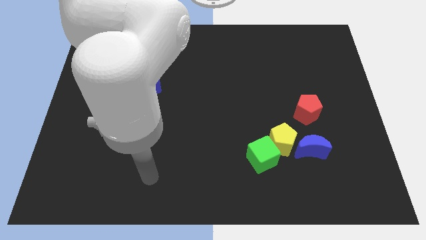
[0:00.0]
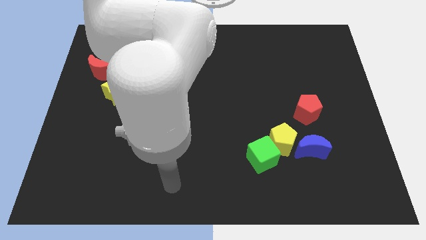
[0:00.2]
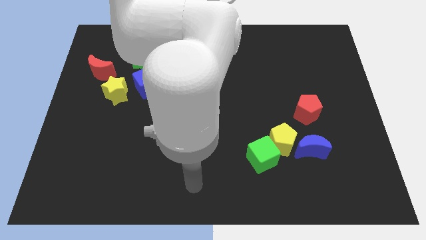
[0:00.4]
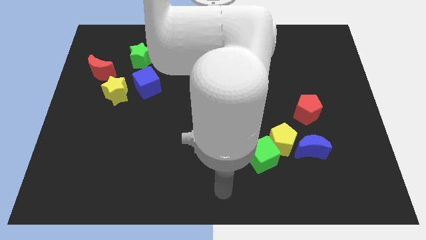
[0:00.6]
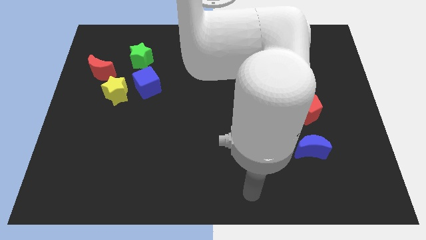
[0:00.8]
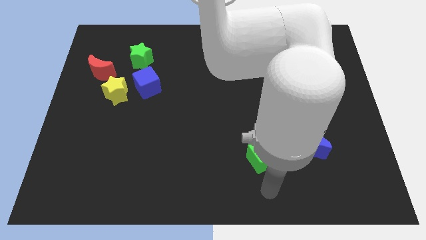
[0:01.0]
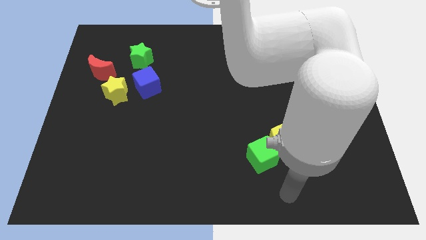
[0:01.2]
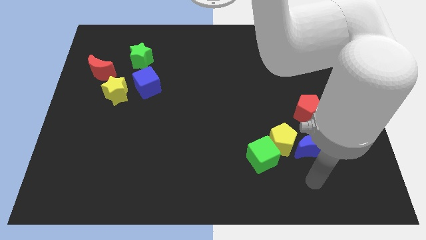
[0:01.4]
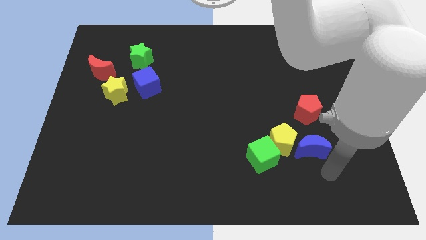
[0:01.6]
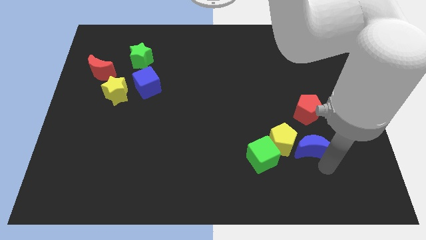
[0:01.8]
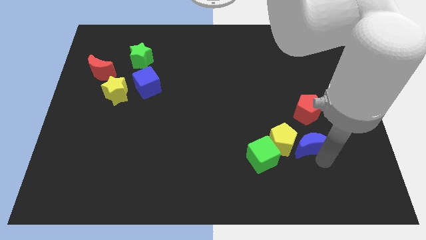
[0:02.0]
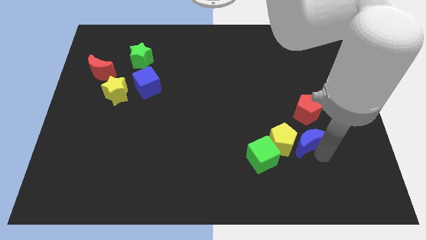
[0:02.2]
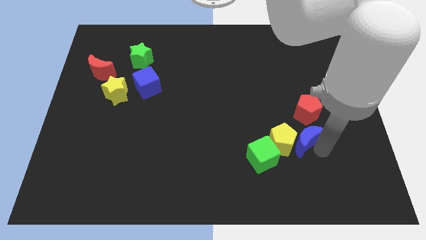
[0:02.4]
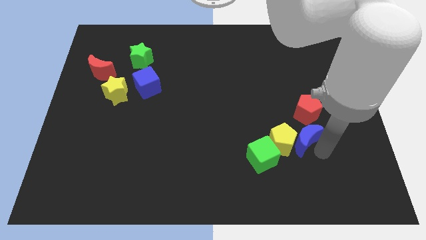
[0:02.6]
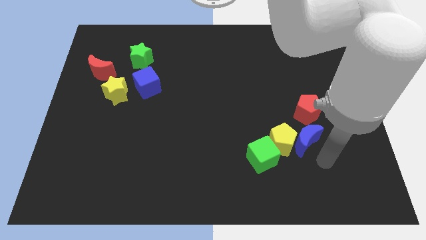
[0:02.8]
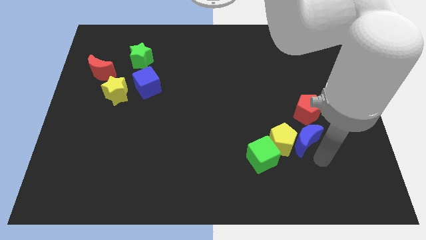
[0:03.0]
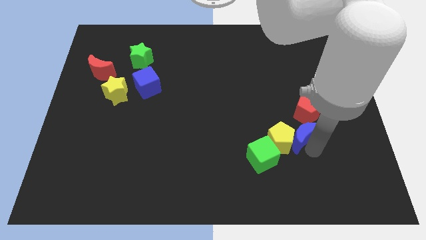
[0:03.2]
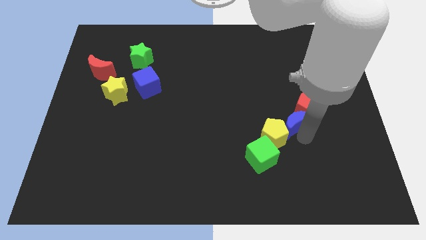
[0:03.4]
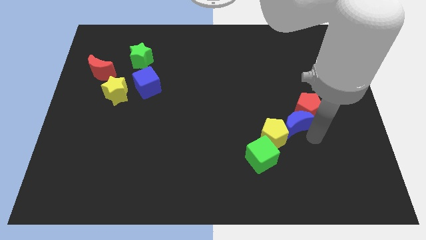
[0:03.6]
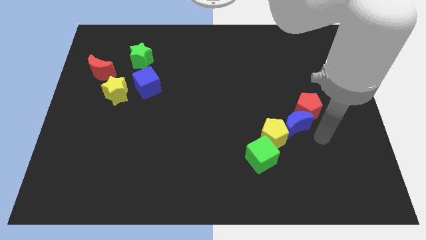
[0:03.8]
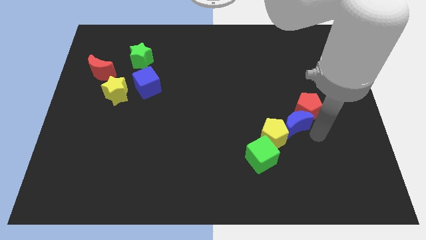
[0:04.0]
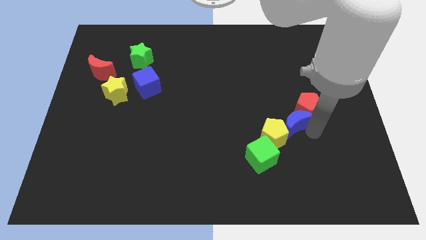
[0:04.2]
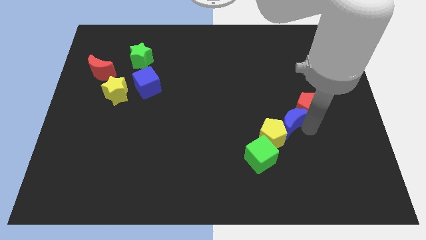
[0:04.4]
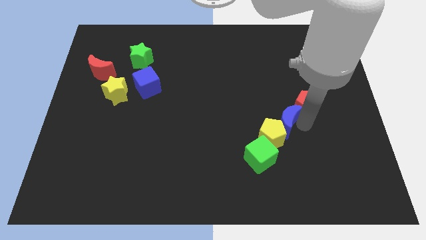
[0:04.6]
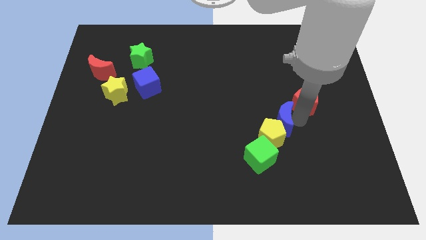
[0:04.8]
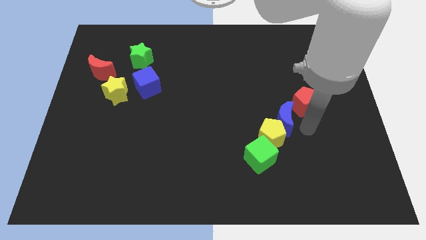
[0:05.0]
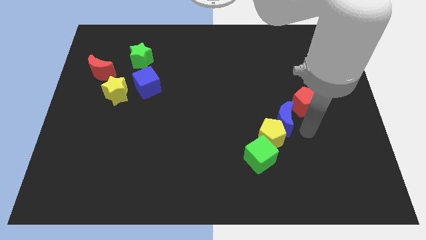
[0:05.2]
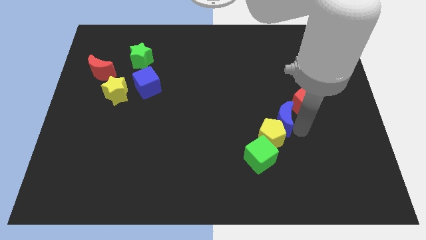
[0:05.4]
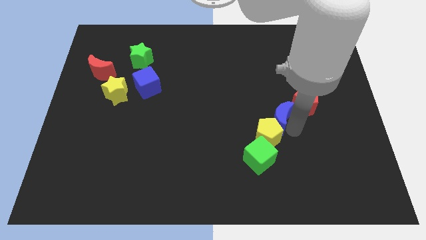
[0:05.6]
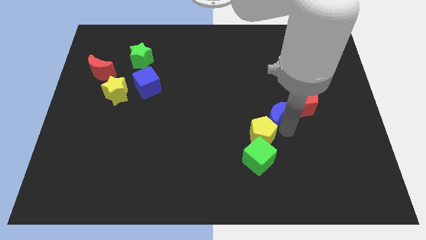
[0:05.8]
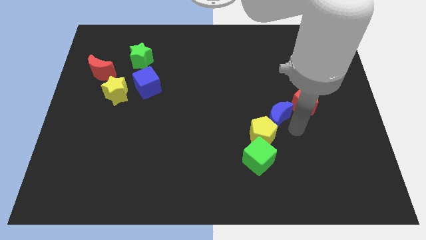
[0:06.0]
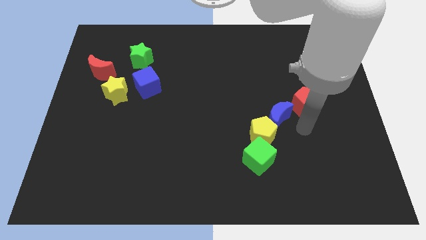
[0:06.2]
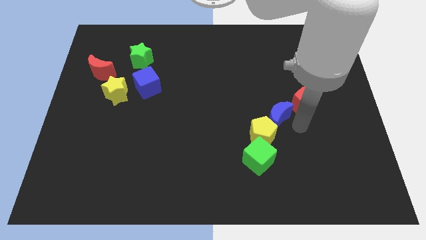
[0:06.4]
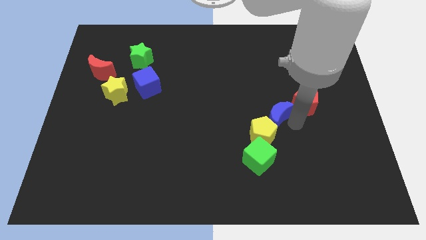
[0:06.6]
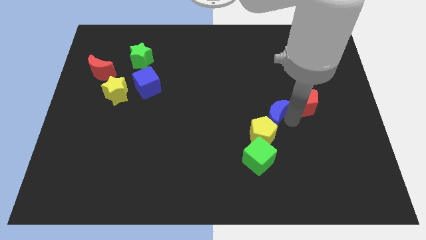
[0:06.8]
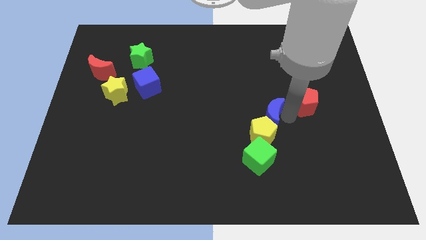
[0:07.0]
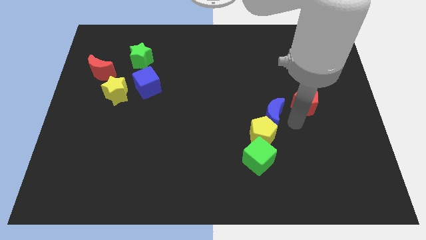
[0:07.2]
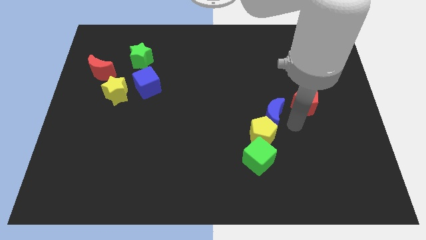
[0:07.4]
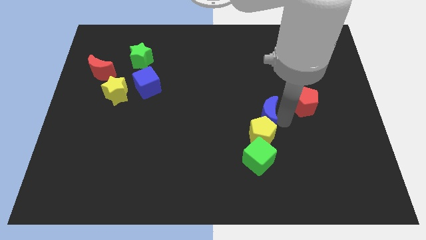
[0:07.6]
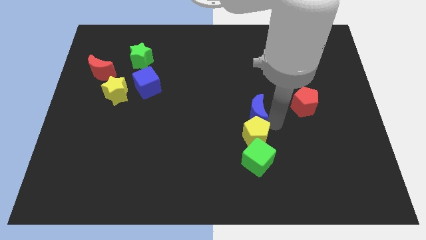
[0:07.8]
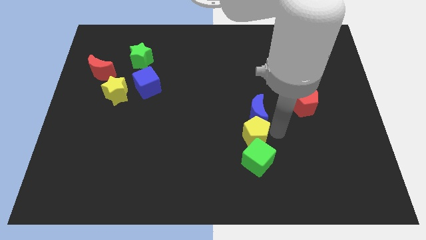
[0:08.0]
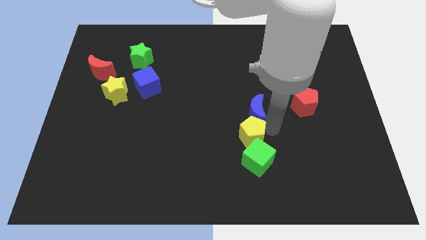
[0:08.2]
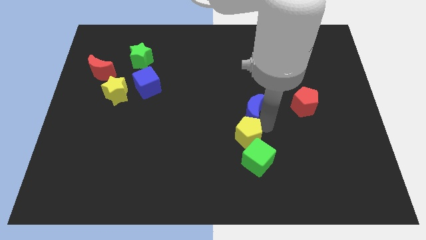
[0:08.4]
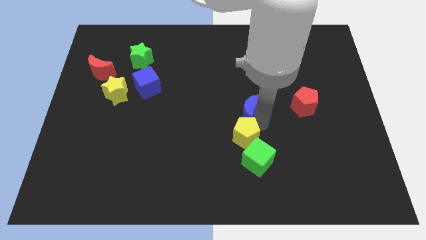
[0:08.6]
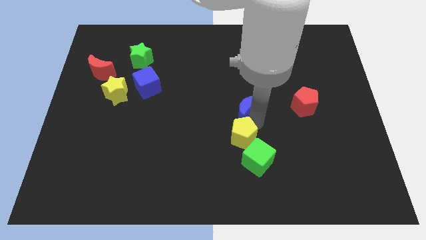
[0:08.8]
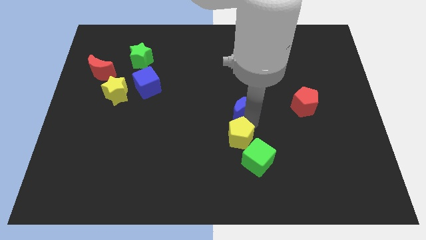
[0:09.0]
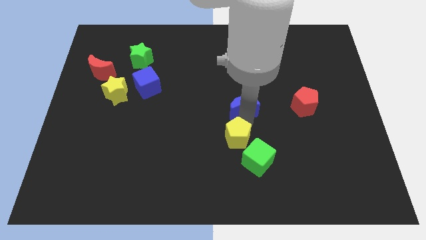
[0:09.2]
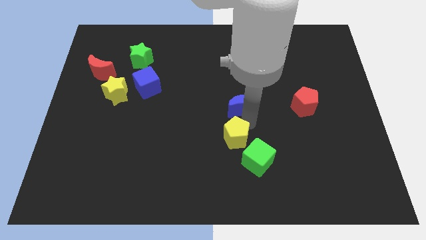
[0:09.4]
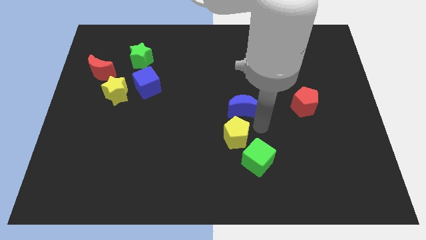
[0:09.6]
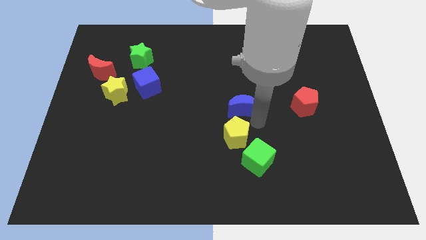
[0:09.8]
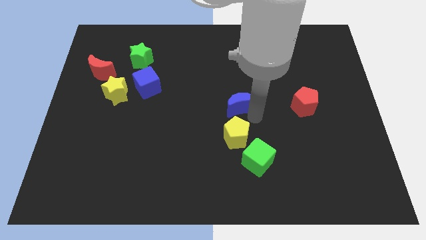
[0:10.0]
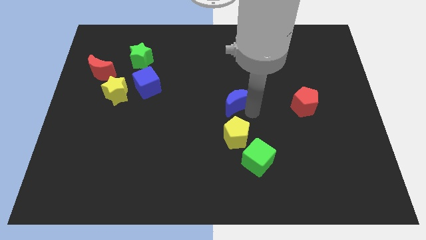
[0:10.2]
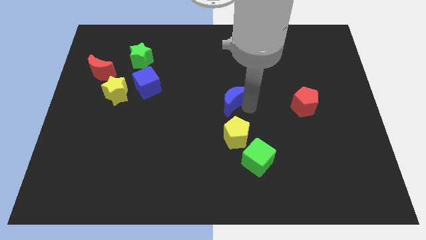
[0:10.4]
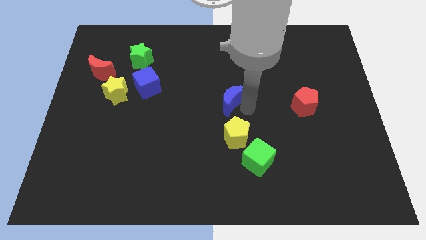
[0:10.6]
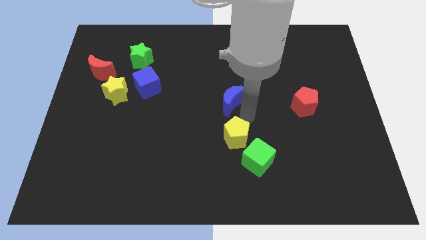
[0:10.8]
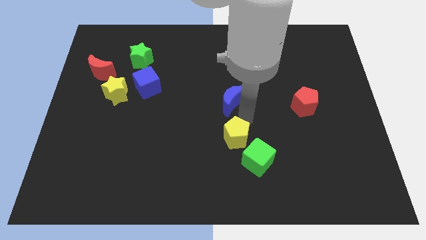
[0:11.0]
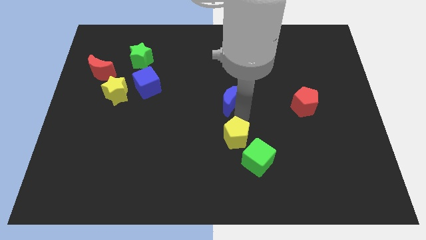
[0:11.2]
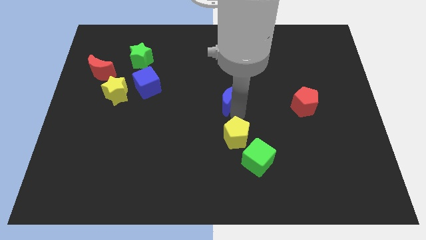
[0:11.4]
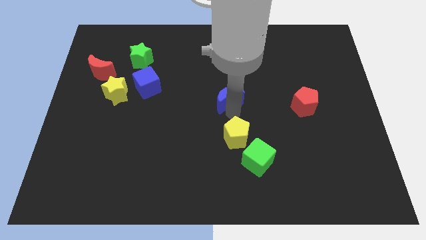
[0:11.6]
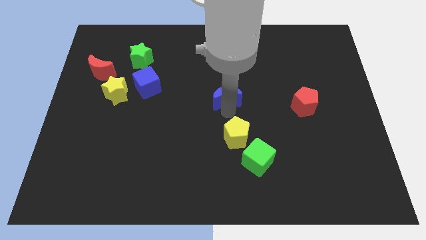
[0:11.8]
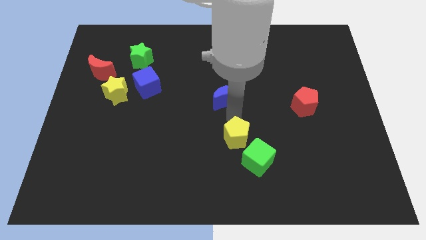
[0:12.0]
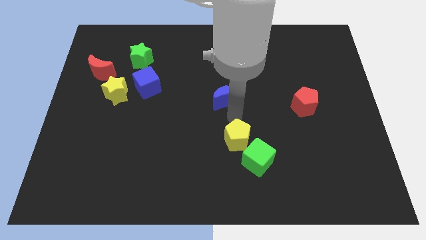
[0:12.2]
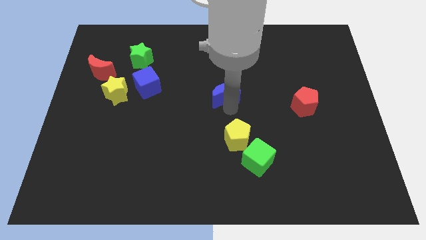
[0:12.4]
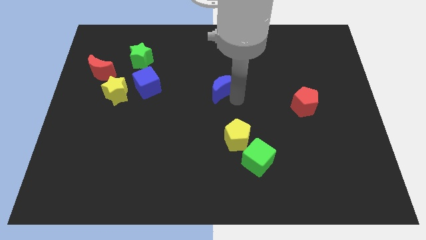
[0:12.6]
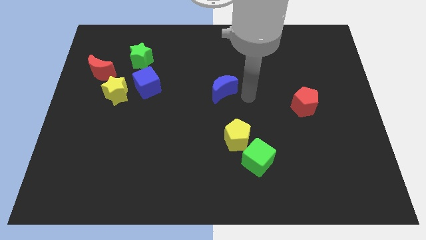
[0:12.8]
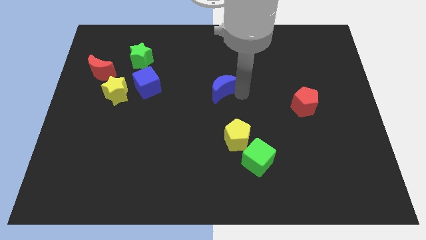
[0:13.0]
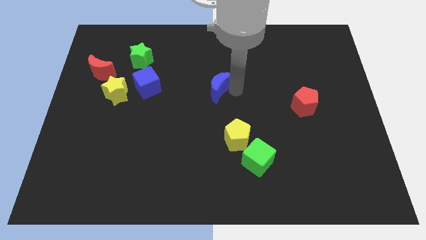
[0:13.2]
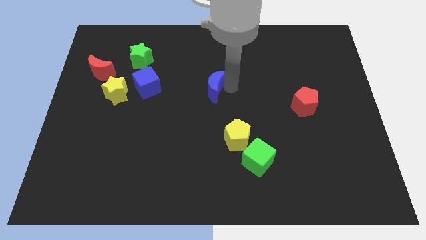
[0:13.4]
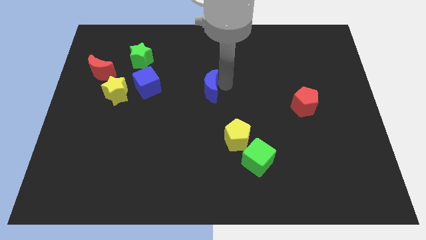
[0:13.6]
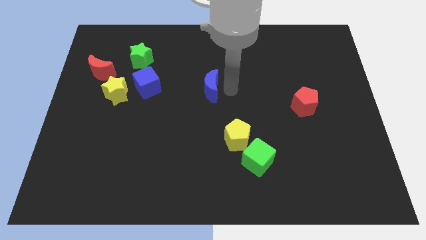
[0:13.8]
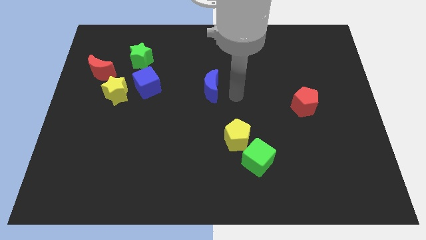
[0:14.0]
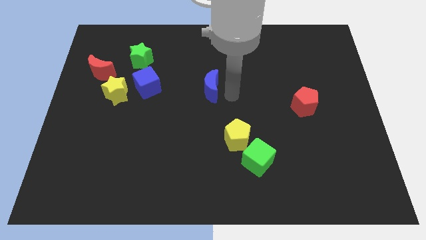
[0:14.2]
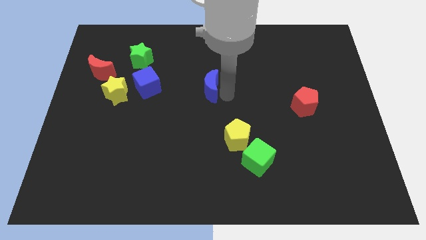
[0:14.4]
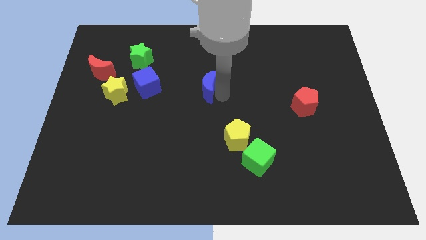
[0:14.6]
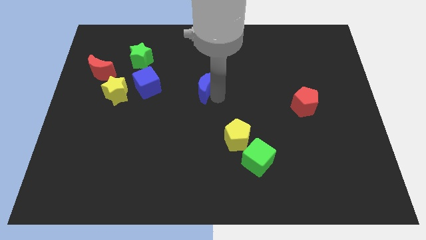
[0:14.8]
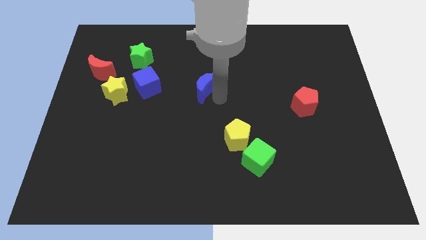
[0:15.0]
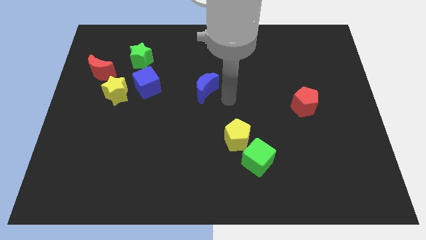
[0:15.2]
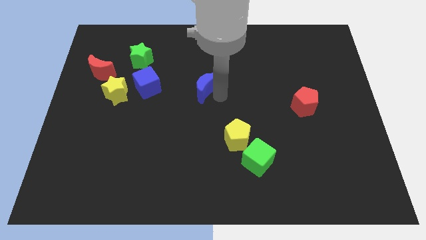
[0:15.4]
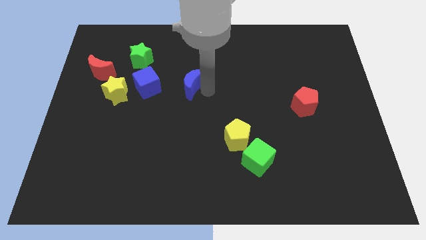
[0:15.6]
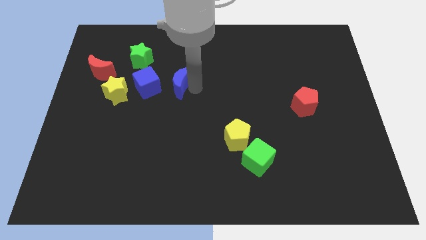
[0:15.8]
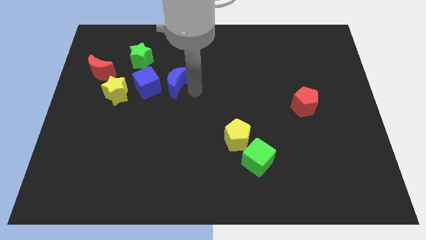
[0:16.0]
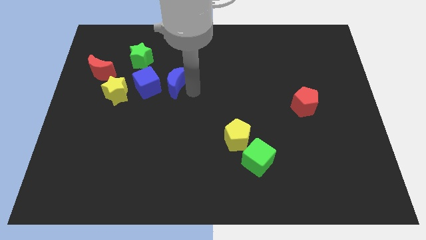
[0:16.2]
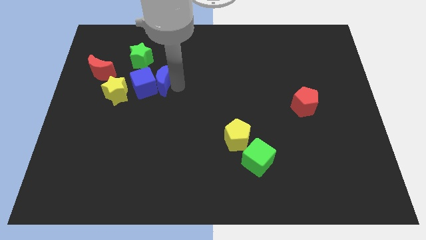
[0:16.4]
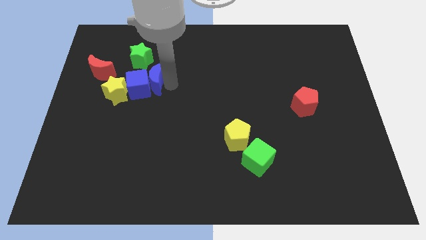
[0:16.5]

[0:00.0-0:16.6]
move the blue moon to the right of the red moon
